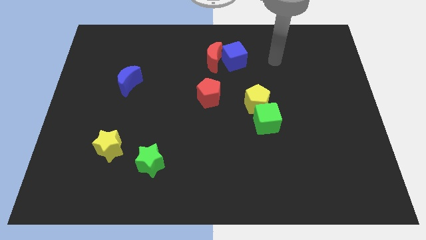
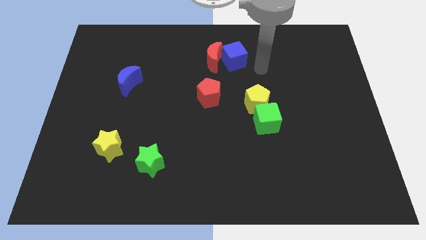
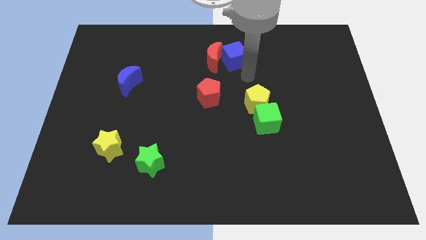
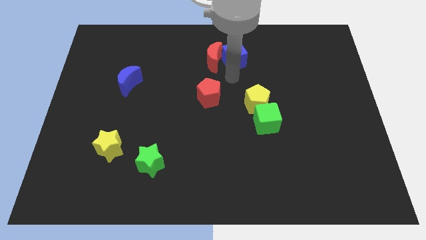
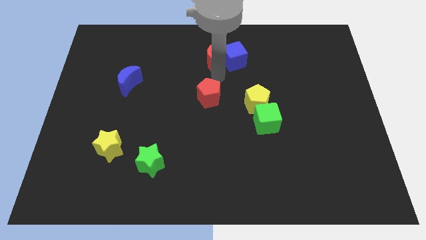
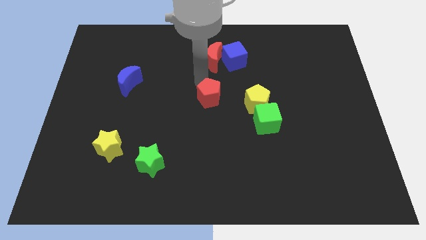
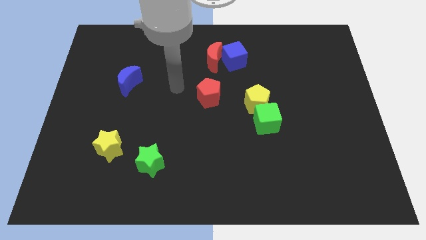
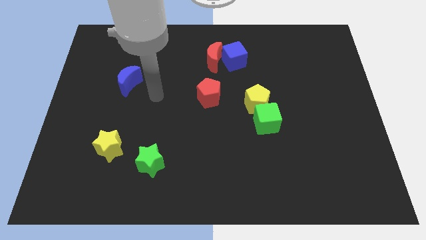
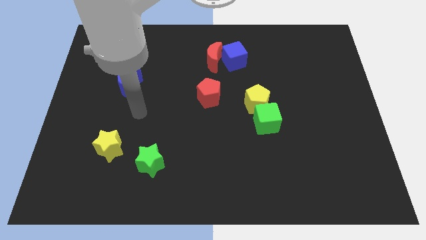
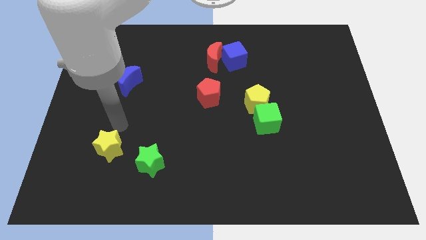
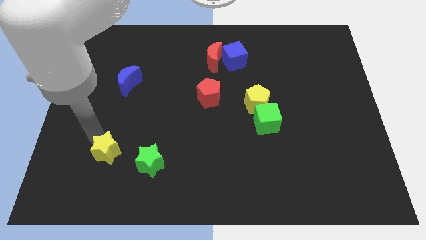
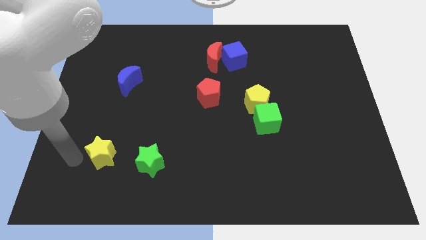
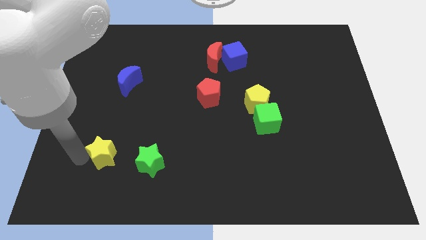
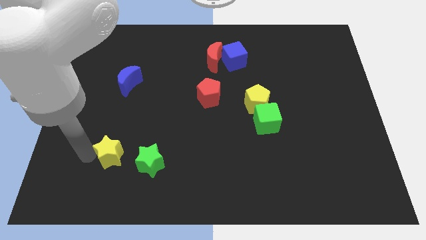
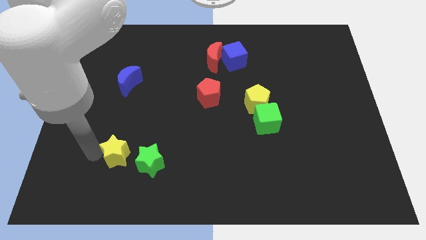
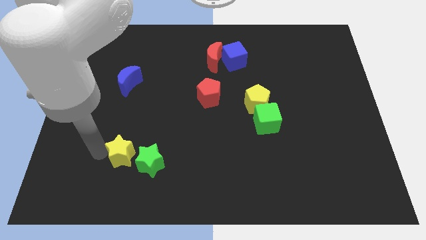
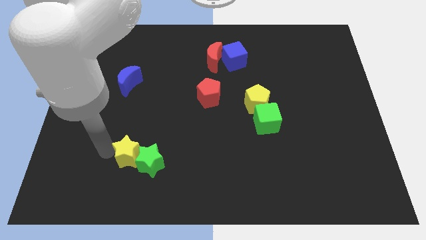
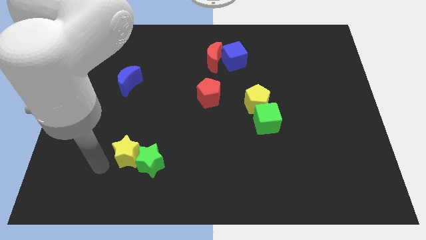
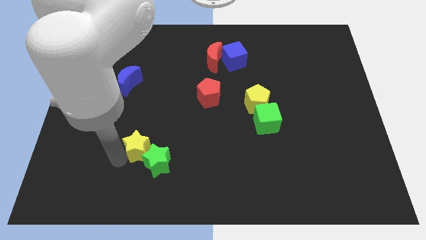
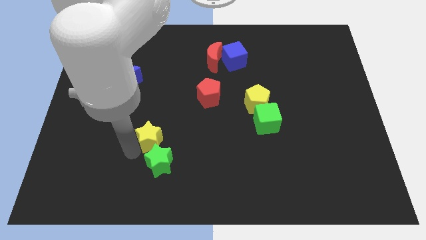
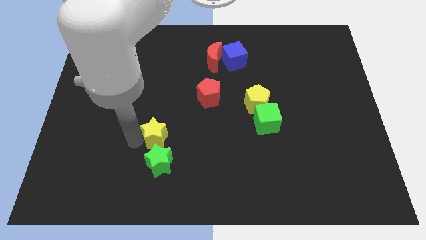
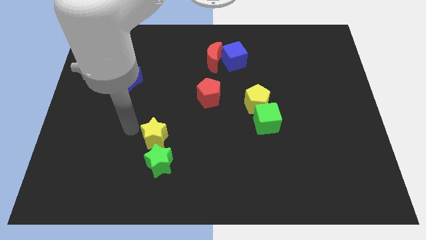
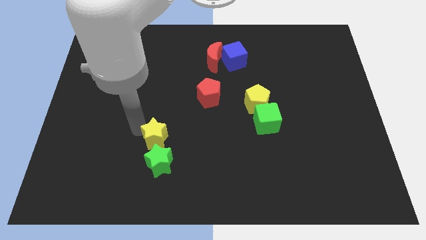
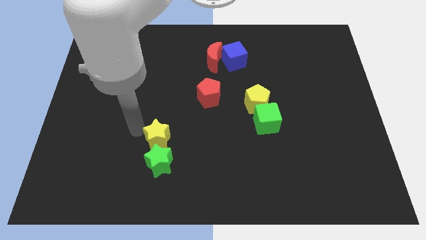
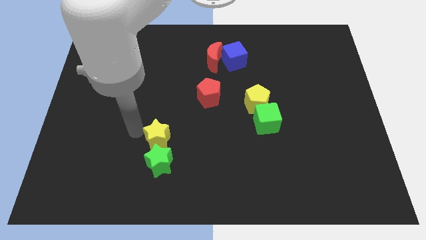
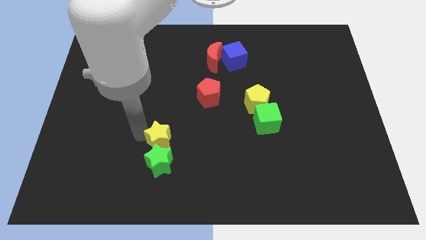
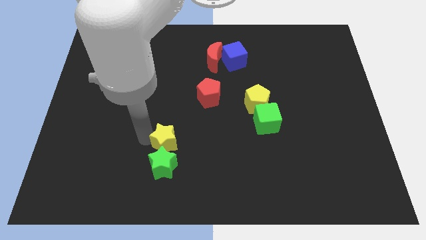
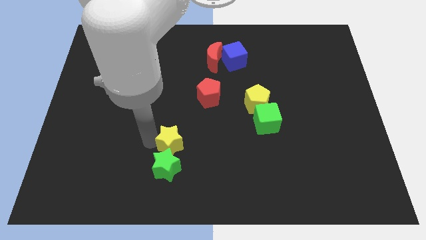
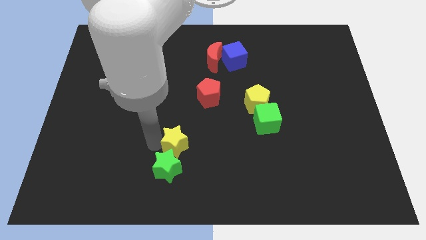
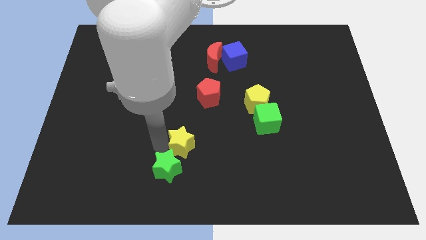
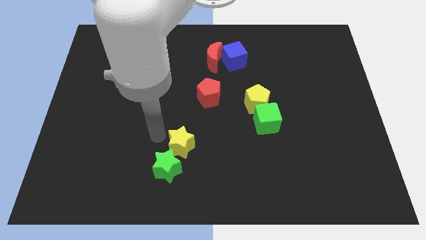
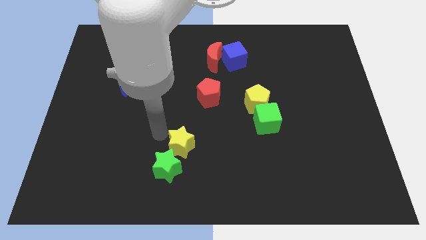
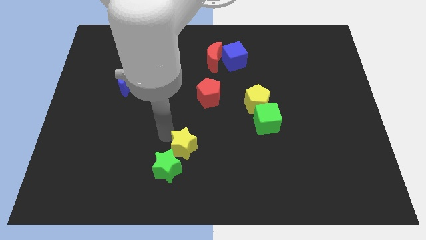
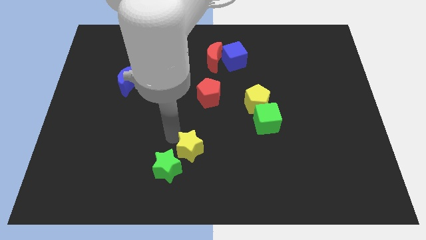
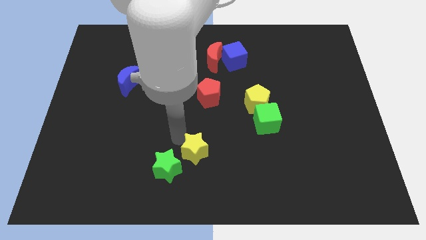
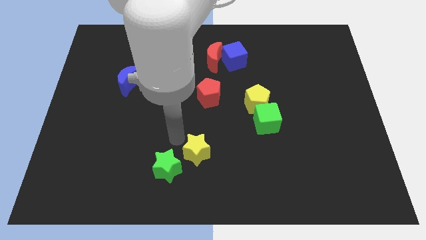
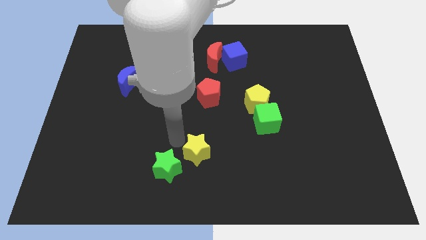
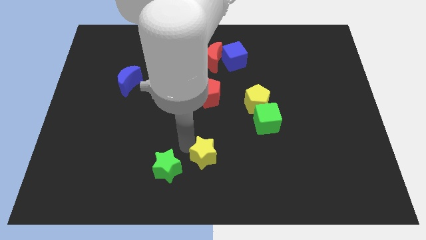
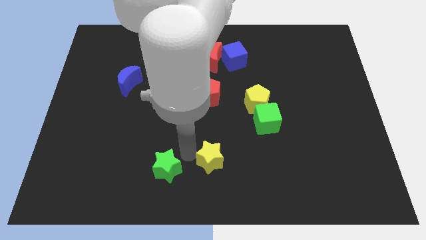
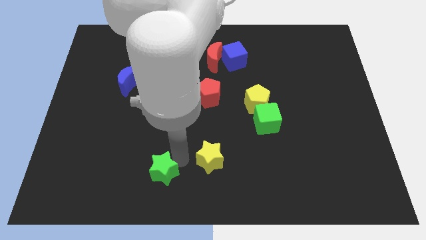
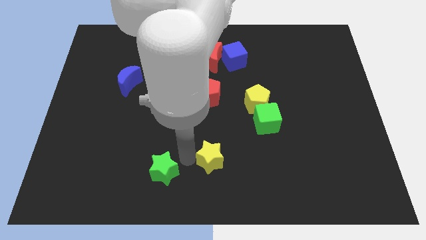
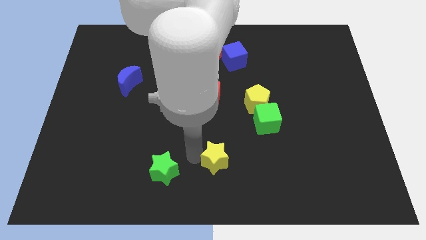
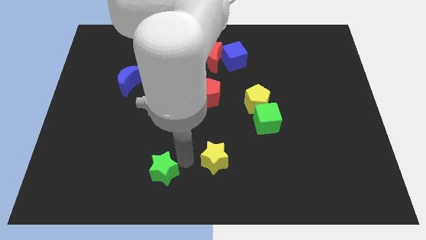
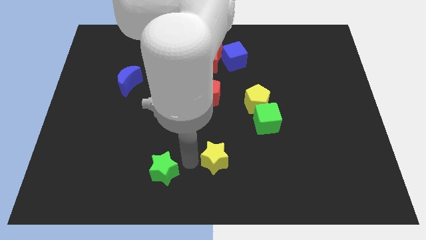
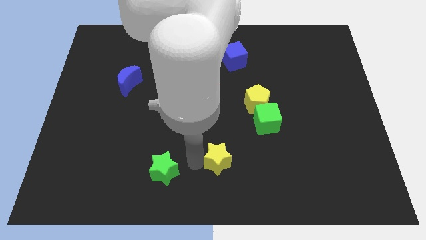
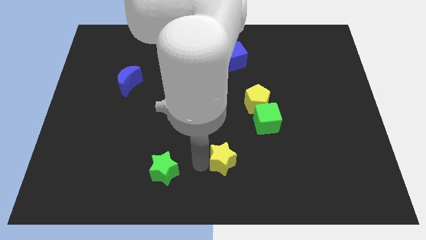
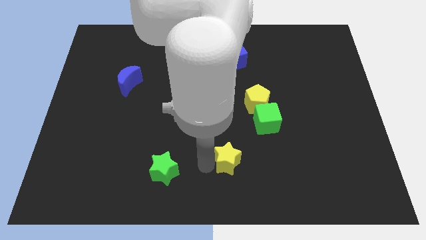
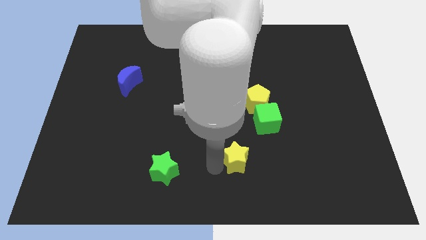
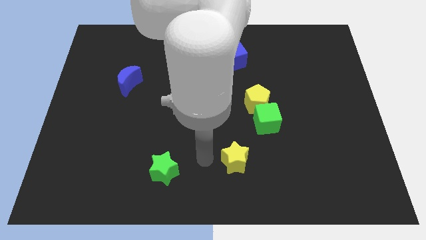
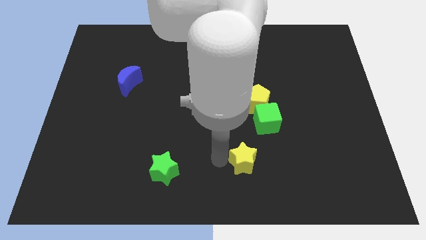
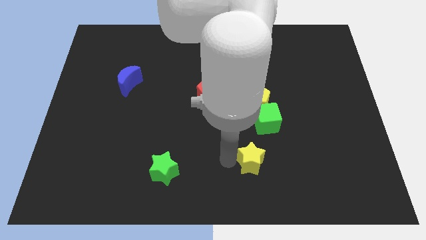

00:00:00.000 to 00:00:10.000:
move the yellow star below the green cube

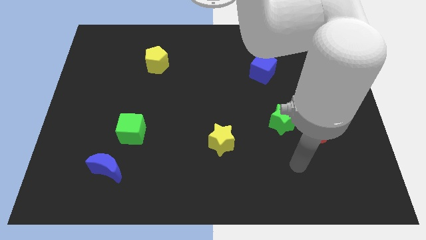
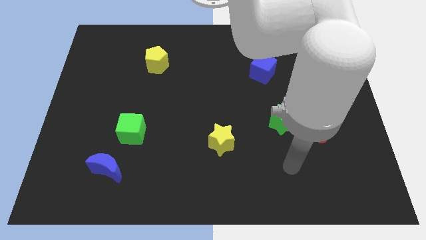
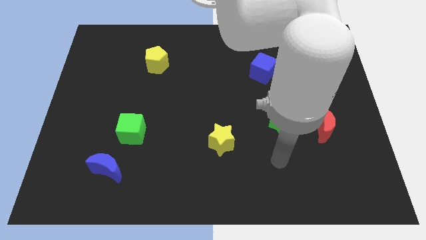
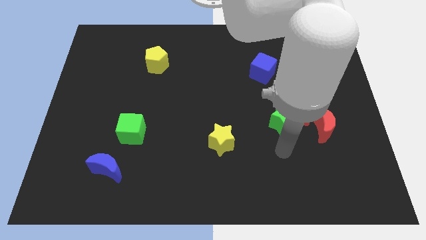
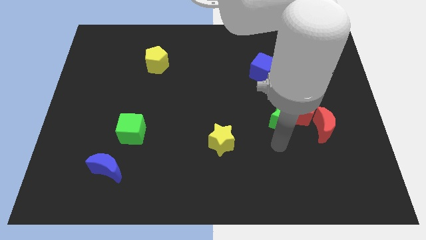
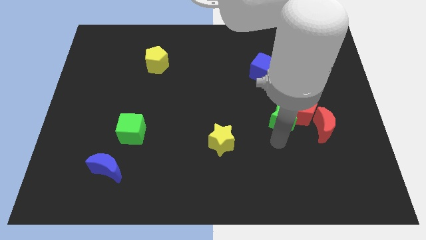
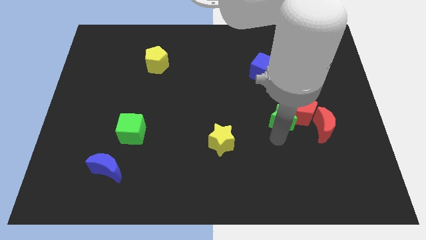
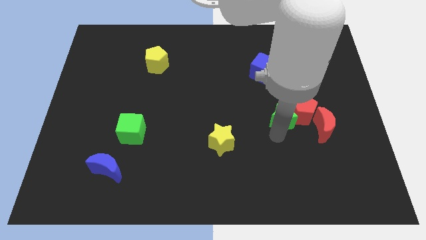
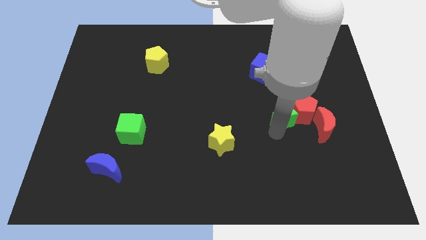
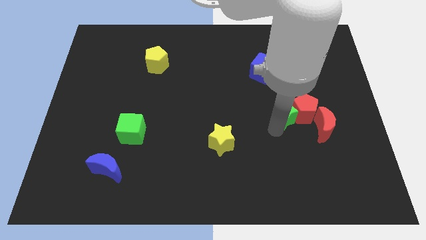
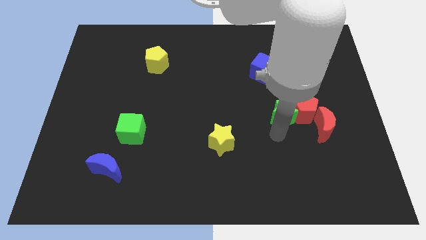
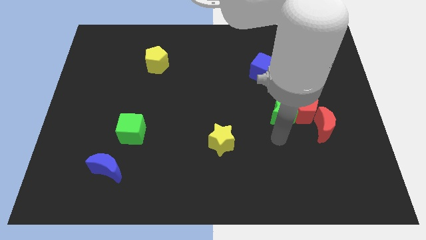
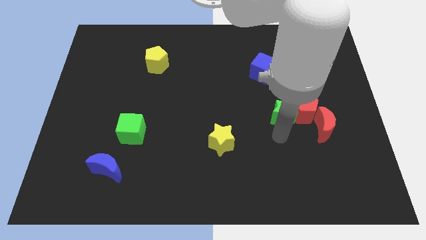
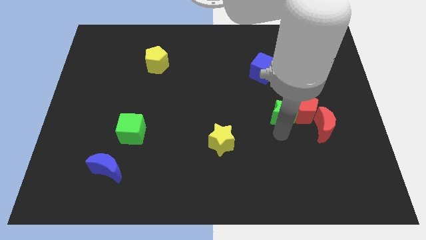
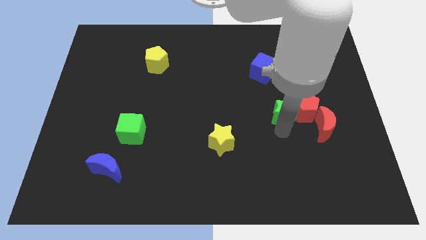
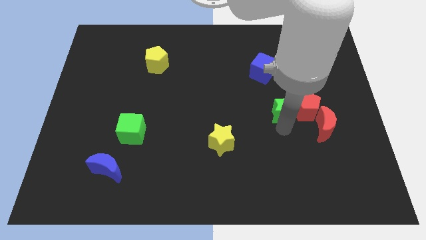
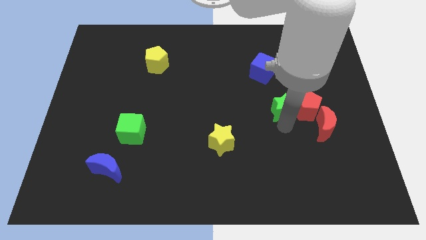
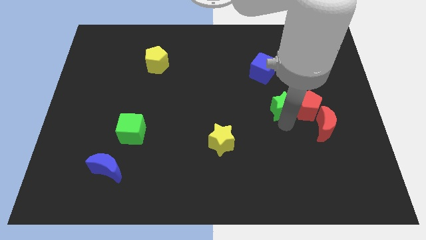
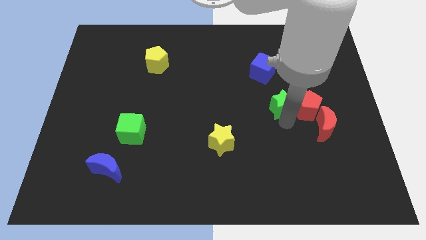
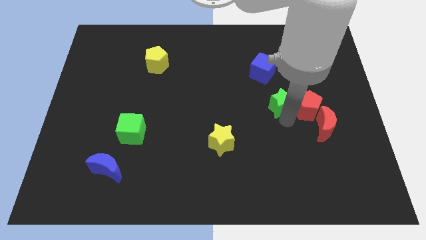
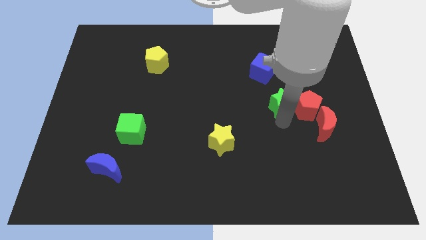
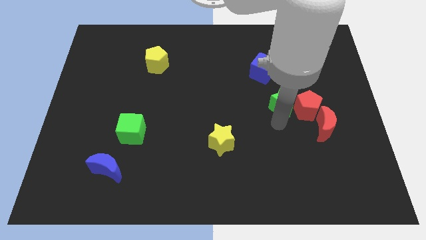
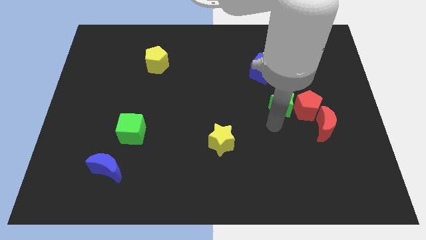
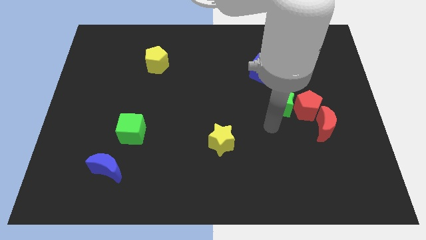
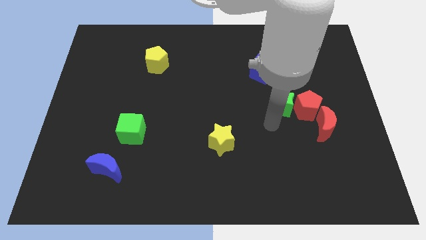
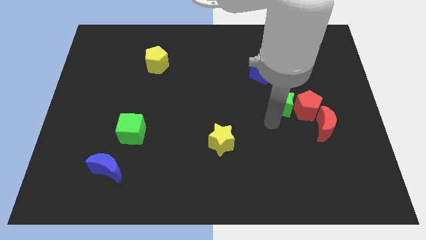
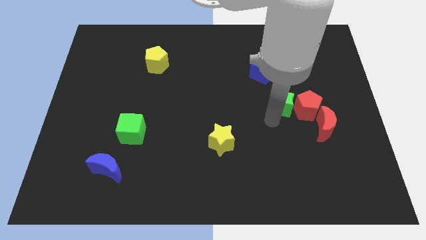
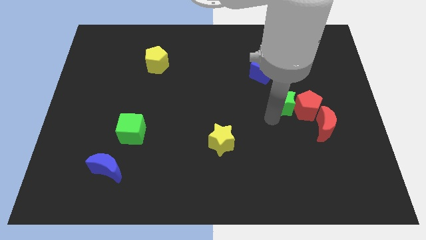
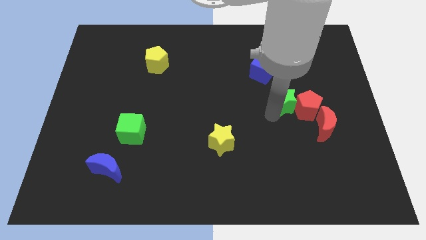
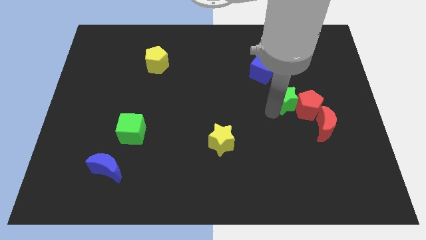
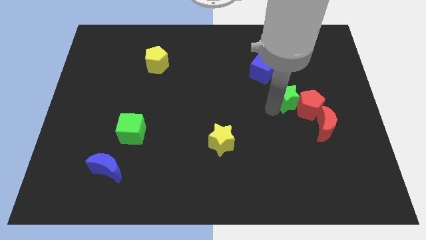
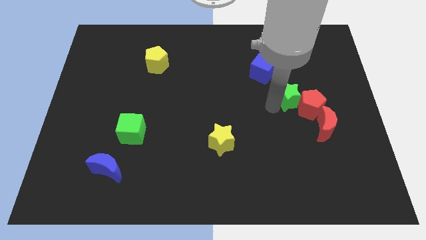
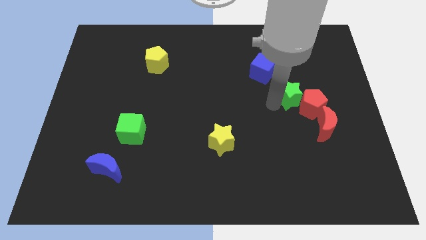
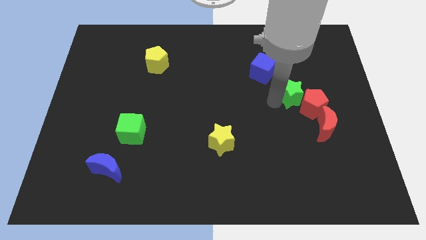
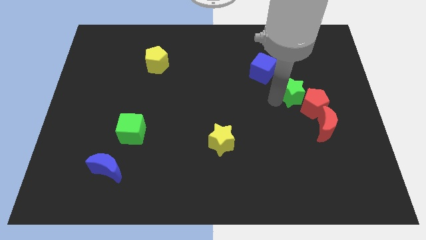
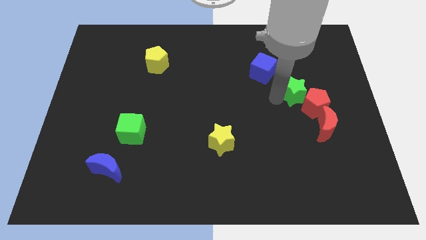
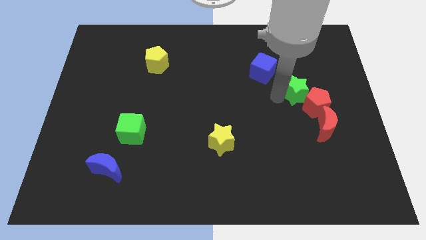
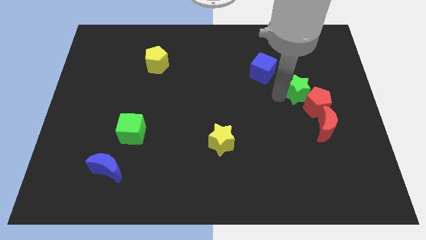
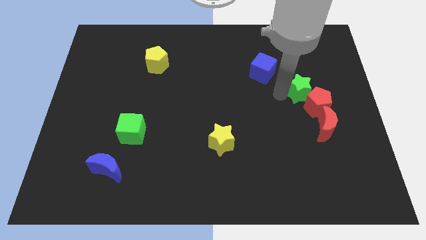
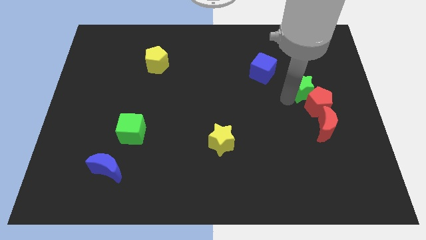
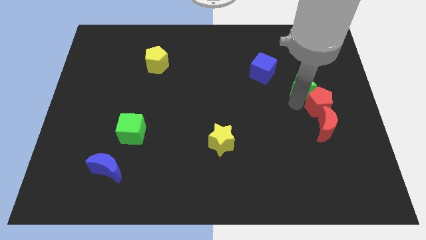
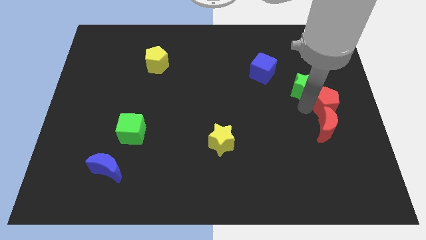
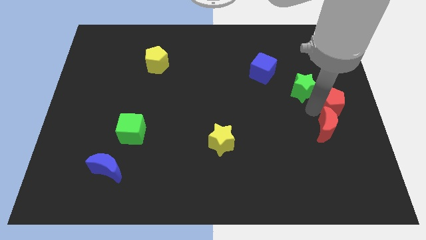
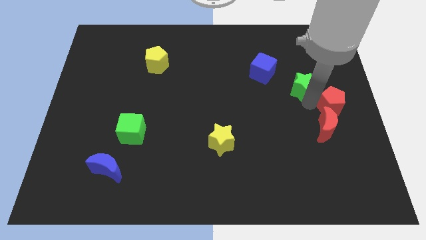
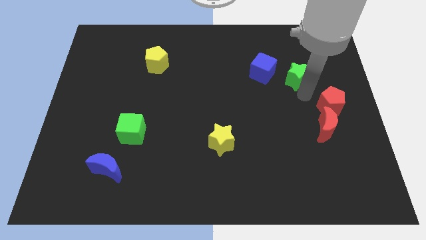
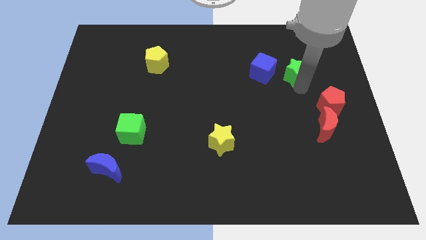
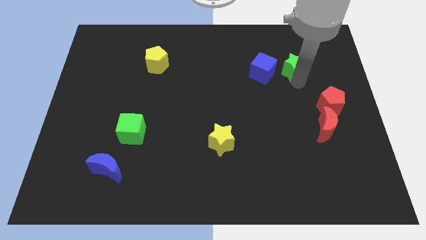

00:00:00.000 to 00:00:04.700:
slide the green star to the top right of the blue cube
